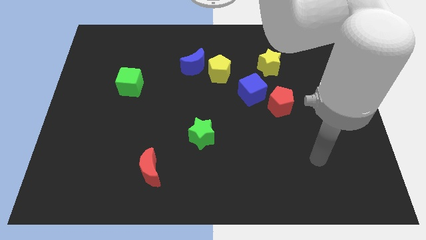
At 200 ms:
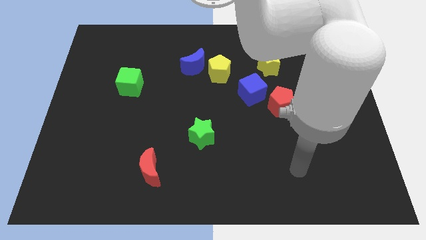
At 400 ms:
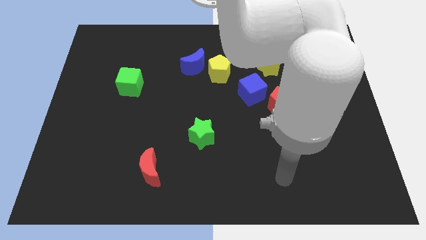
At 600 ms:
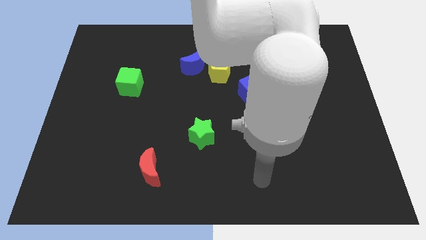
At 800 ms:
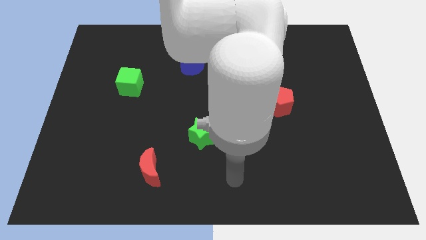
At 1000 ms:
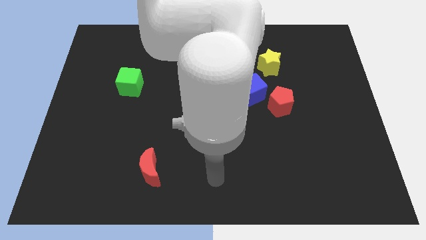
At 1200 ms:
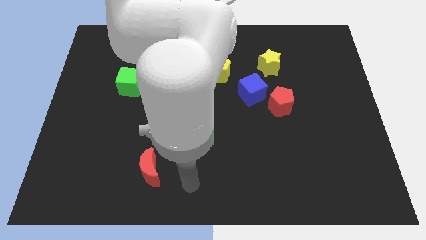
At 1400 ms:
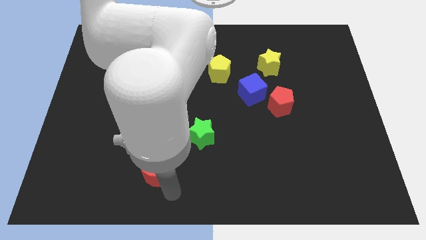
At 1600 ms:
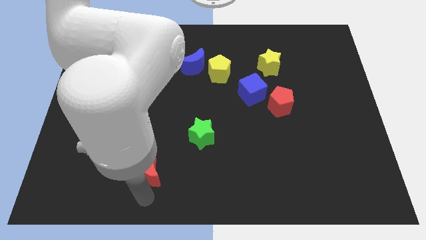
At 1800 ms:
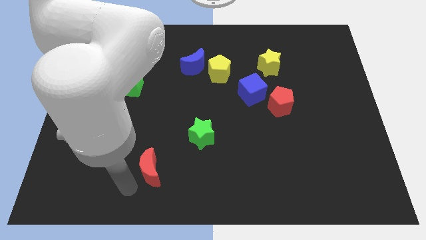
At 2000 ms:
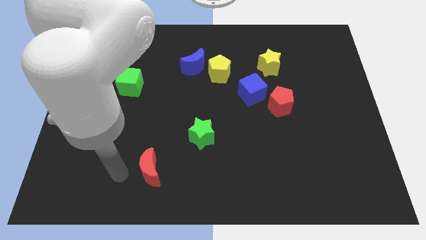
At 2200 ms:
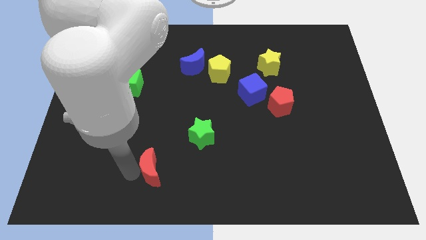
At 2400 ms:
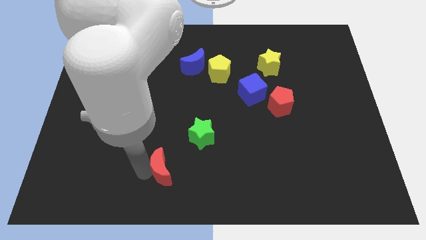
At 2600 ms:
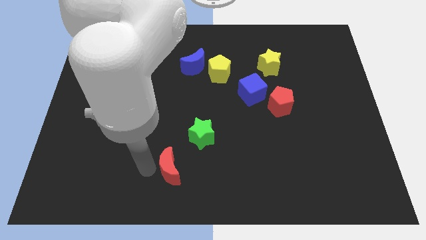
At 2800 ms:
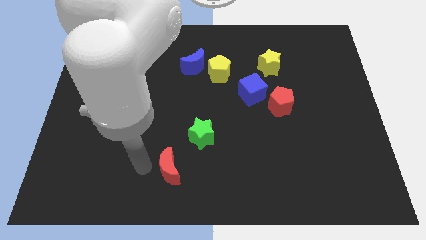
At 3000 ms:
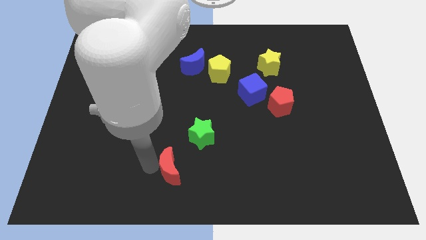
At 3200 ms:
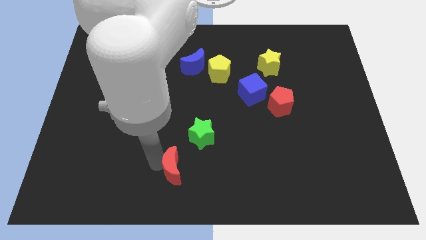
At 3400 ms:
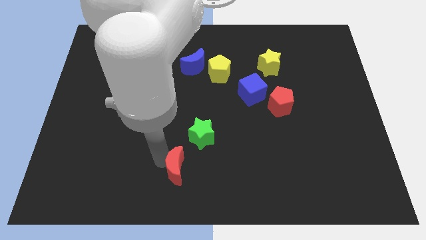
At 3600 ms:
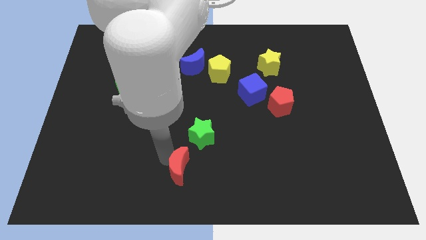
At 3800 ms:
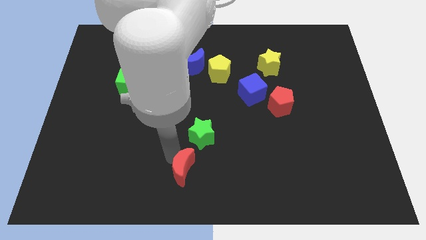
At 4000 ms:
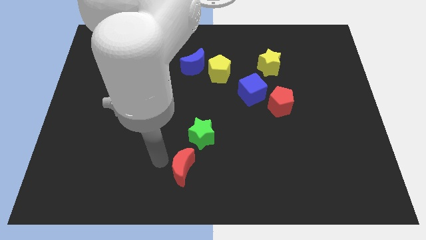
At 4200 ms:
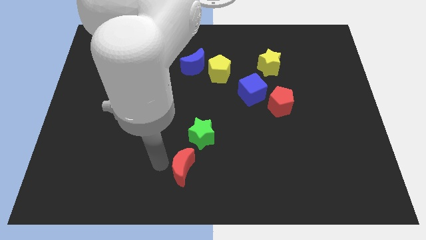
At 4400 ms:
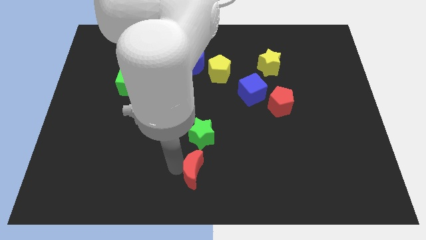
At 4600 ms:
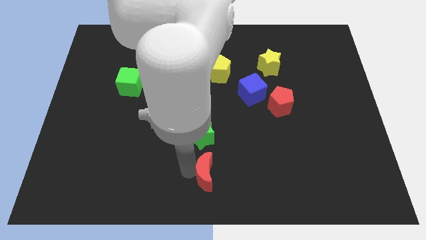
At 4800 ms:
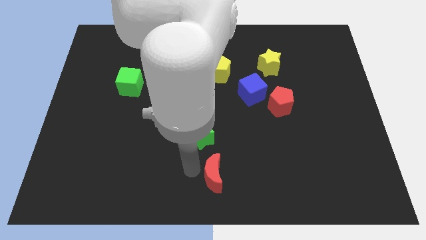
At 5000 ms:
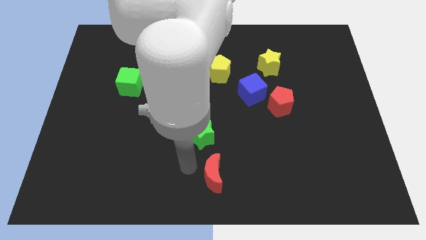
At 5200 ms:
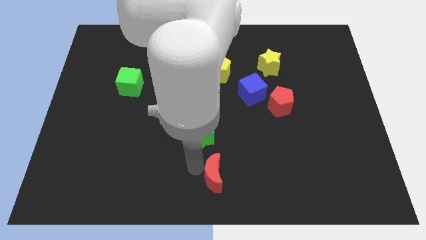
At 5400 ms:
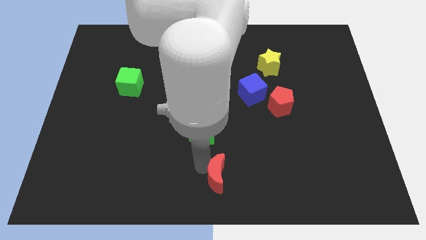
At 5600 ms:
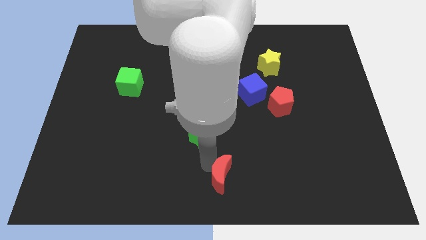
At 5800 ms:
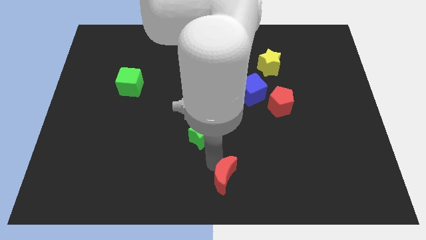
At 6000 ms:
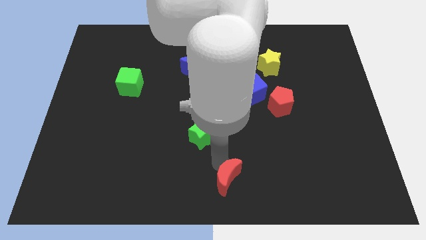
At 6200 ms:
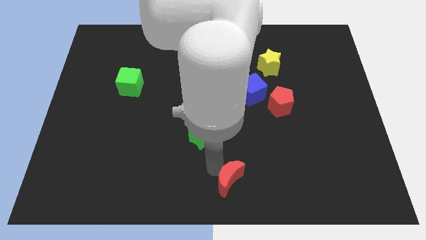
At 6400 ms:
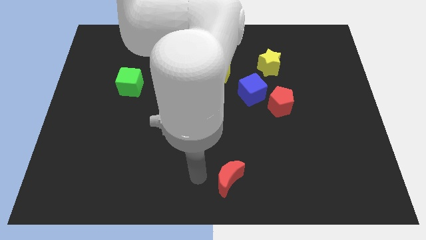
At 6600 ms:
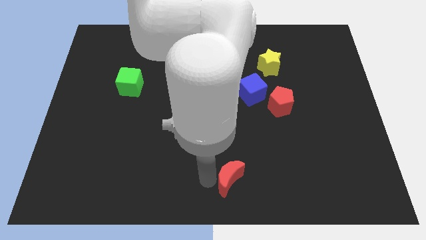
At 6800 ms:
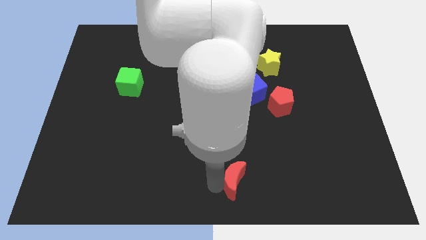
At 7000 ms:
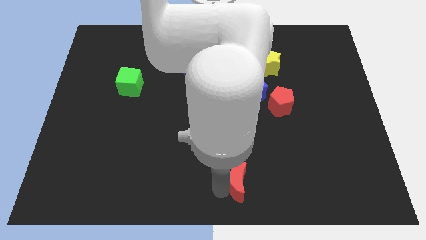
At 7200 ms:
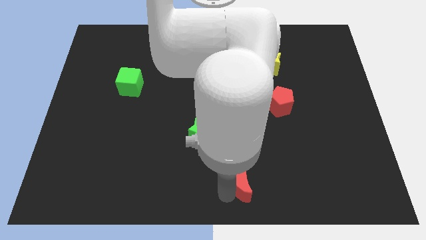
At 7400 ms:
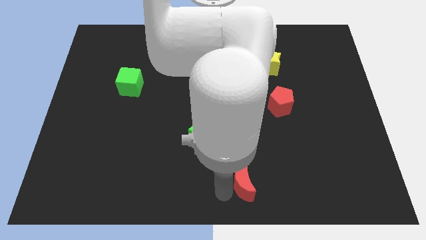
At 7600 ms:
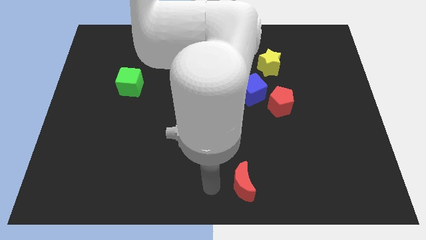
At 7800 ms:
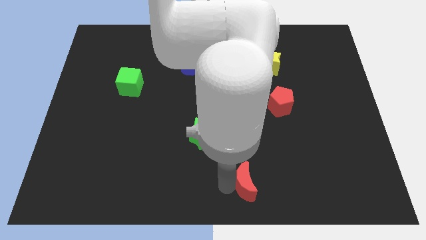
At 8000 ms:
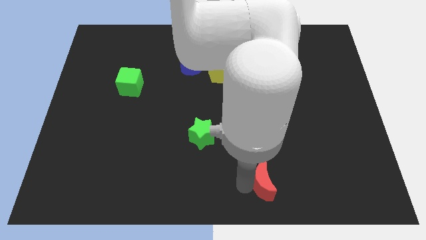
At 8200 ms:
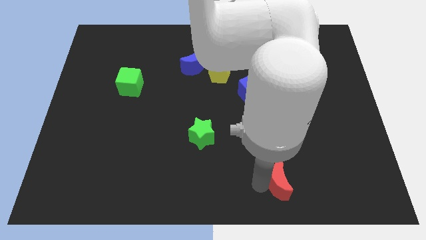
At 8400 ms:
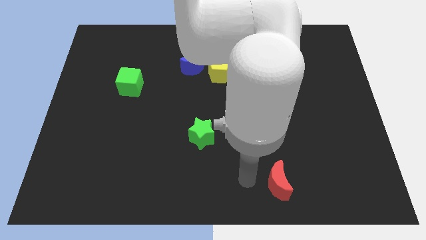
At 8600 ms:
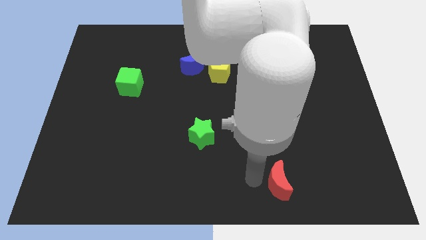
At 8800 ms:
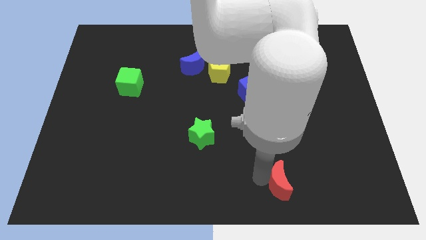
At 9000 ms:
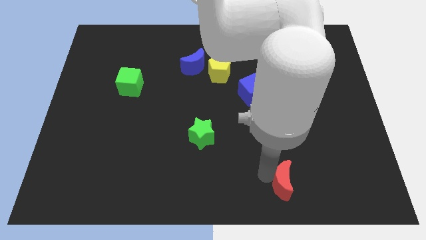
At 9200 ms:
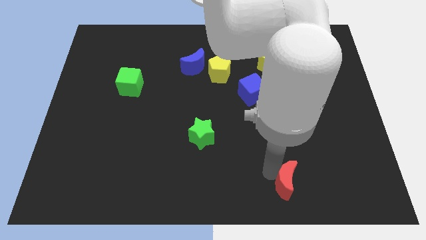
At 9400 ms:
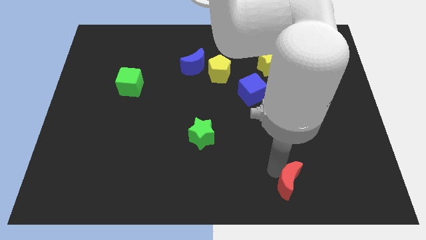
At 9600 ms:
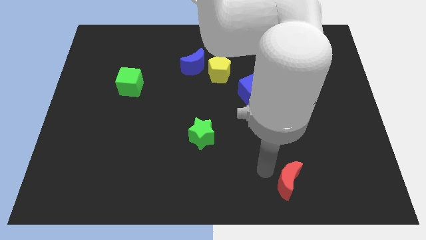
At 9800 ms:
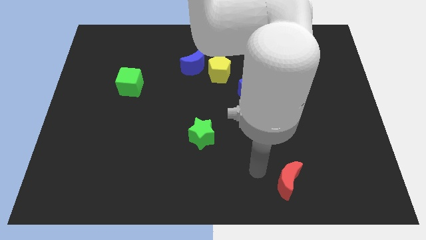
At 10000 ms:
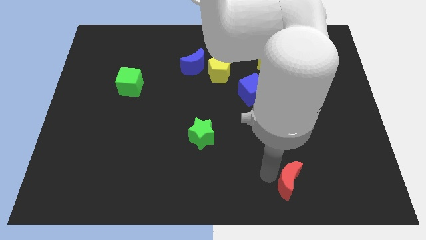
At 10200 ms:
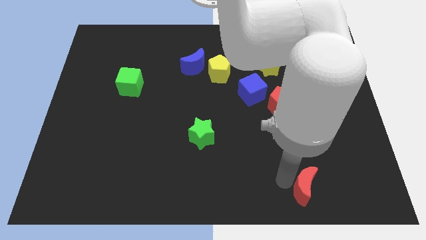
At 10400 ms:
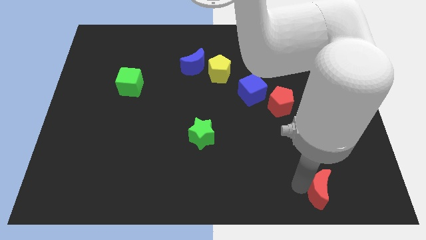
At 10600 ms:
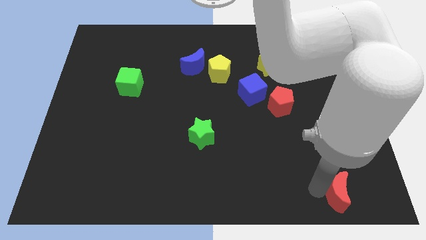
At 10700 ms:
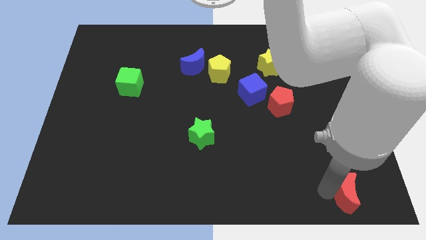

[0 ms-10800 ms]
slide the red moon to the bottom right of the board
